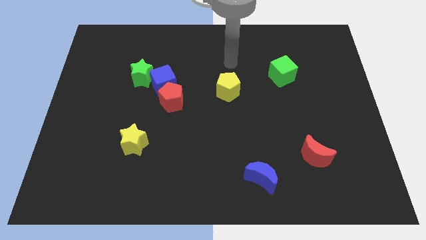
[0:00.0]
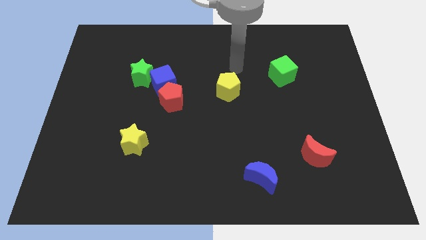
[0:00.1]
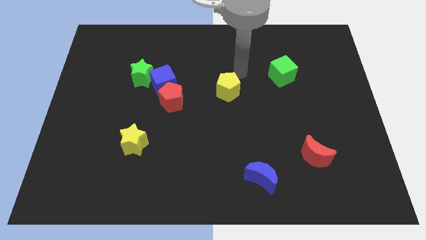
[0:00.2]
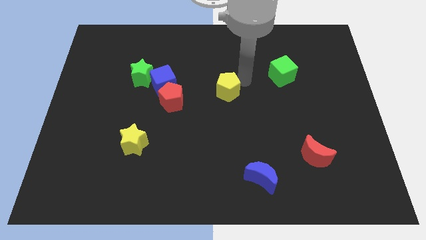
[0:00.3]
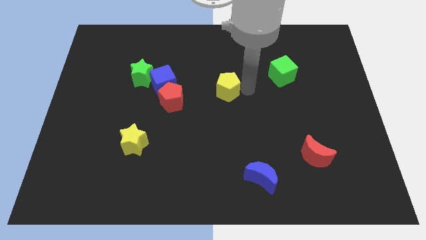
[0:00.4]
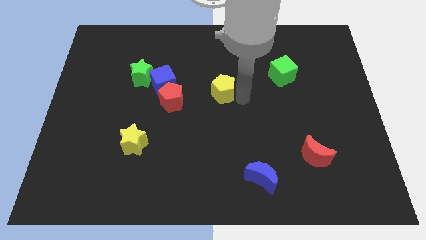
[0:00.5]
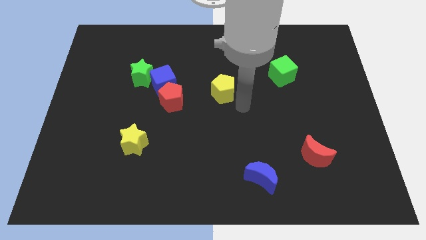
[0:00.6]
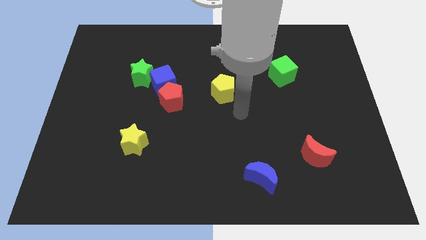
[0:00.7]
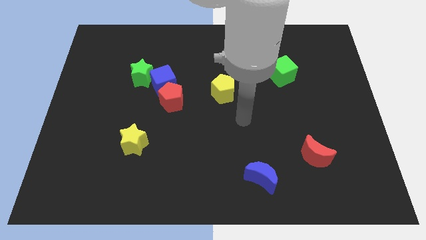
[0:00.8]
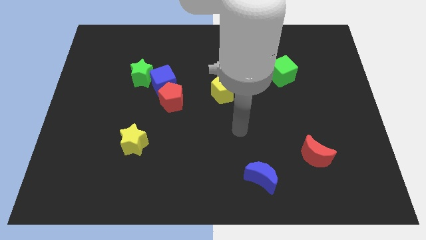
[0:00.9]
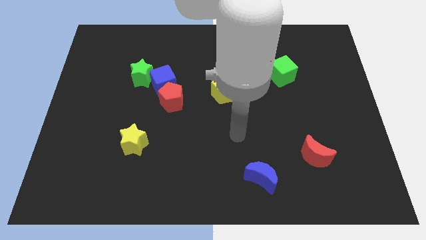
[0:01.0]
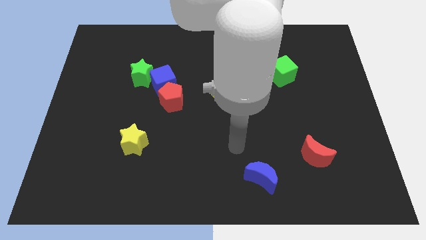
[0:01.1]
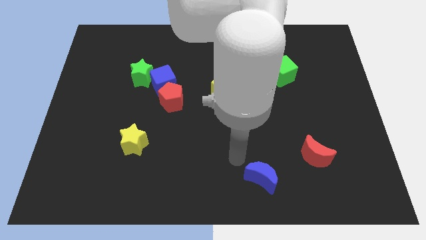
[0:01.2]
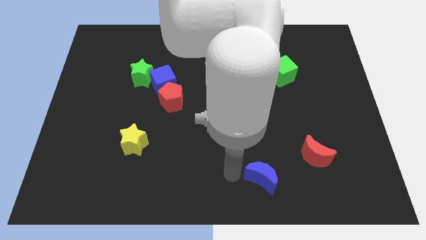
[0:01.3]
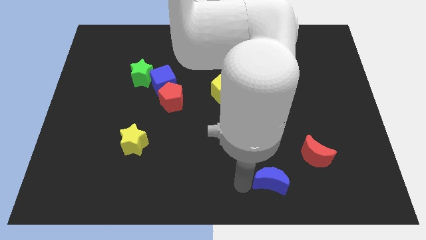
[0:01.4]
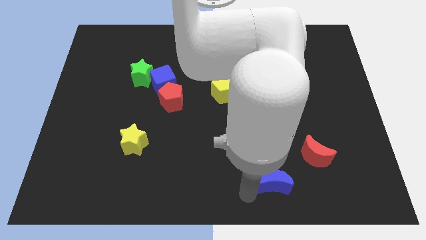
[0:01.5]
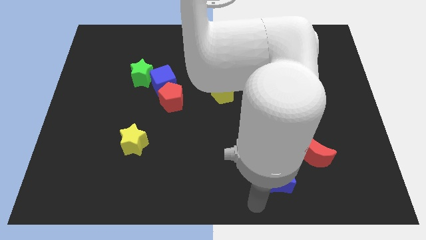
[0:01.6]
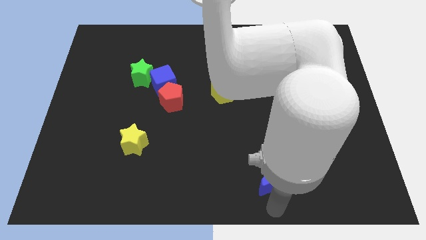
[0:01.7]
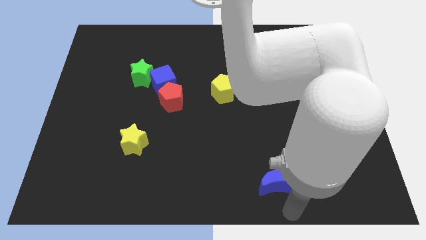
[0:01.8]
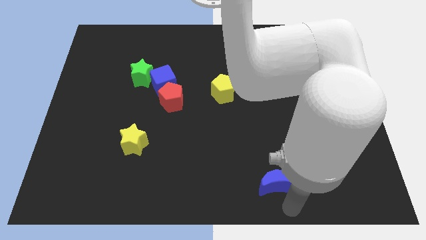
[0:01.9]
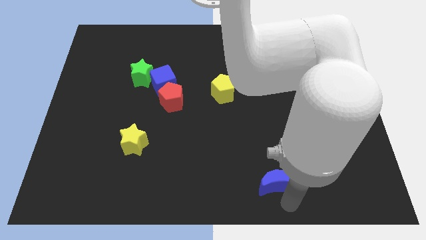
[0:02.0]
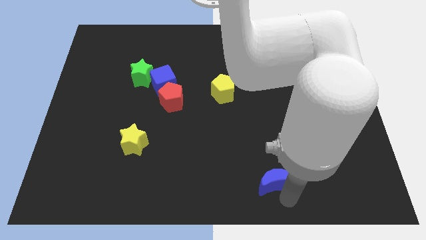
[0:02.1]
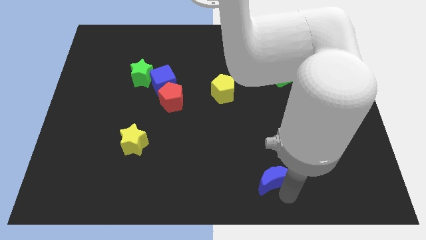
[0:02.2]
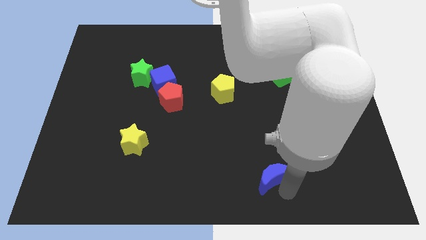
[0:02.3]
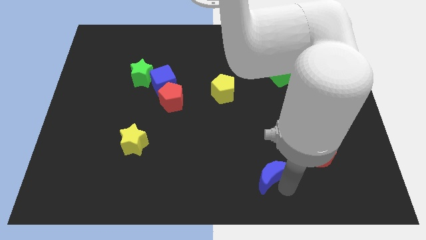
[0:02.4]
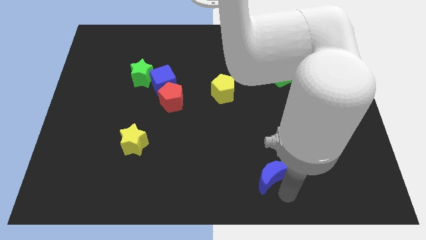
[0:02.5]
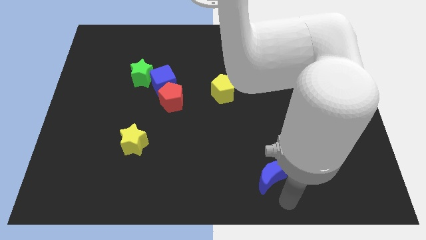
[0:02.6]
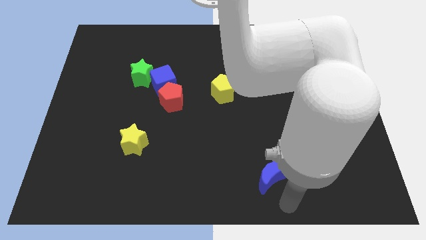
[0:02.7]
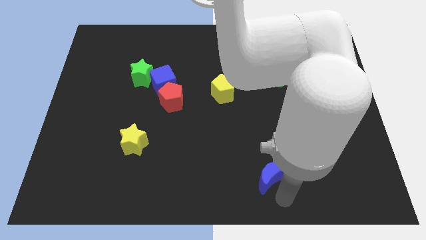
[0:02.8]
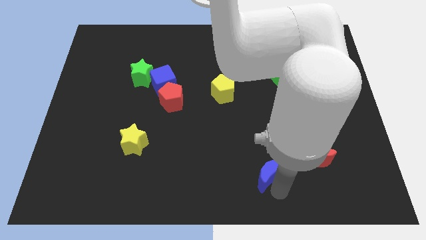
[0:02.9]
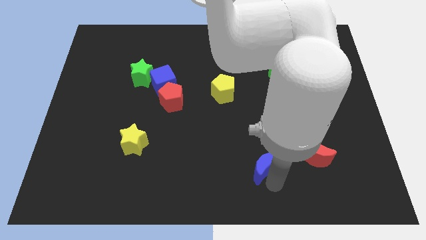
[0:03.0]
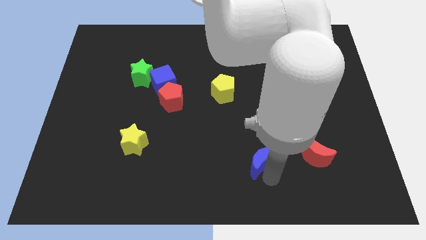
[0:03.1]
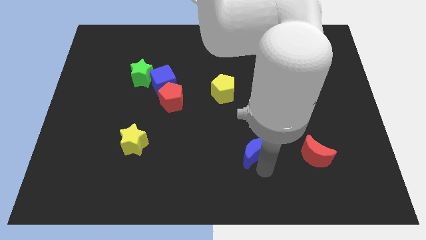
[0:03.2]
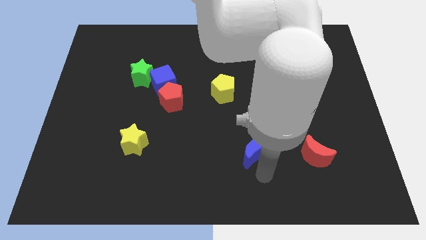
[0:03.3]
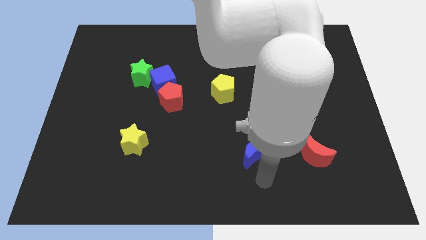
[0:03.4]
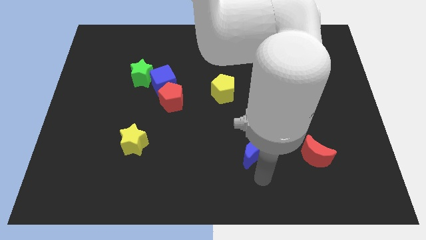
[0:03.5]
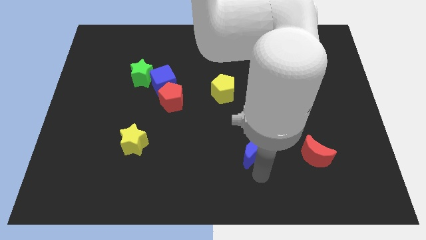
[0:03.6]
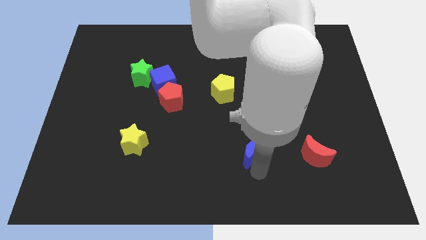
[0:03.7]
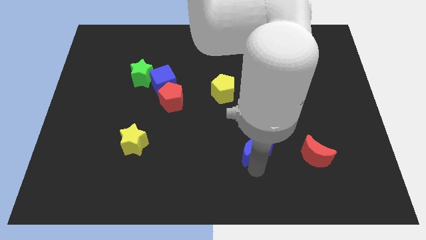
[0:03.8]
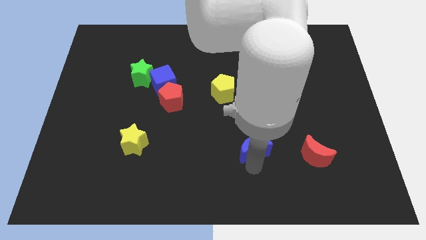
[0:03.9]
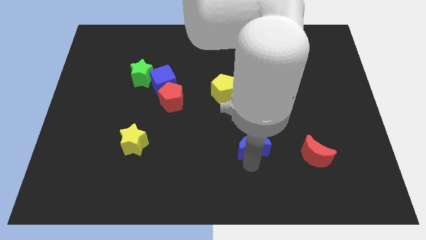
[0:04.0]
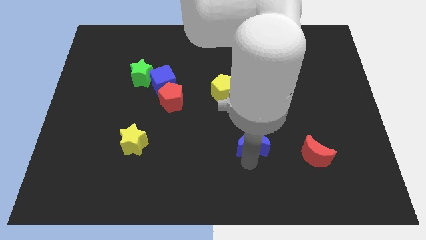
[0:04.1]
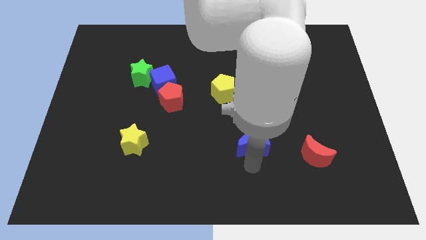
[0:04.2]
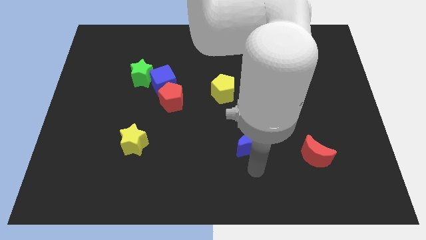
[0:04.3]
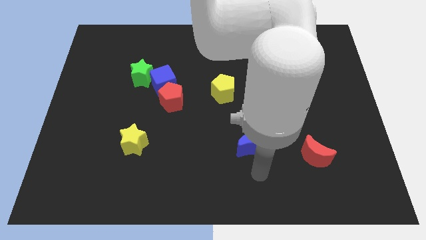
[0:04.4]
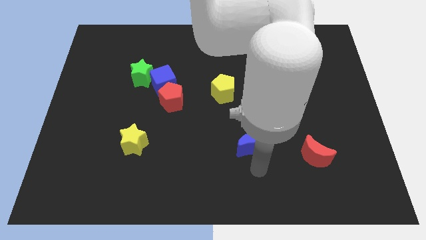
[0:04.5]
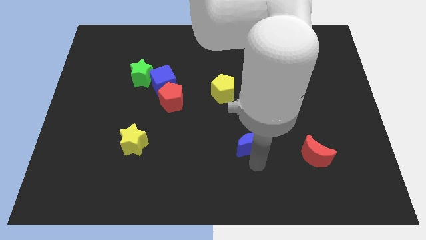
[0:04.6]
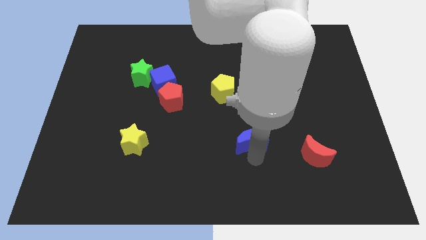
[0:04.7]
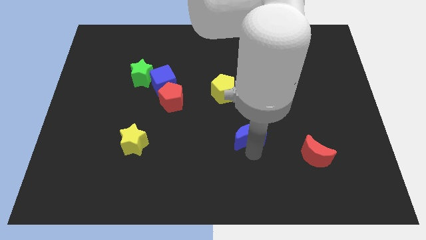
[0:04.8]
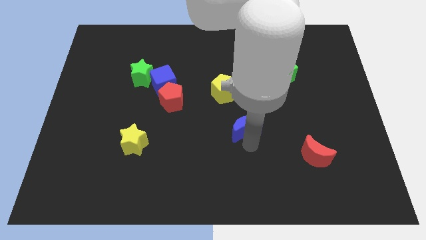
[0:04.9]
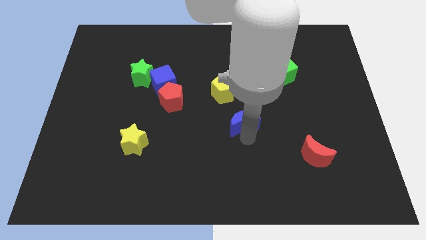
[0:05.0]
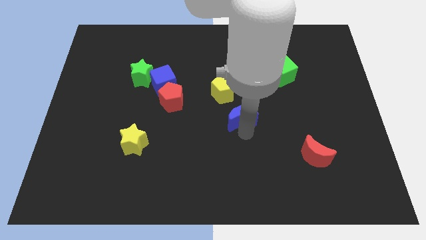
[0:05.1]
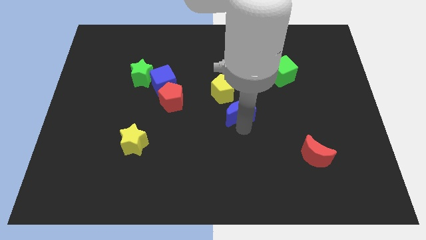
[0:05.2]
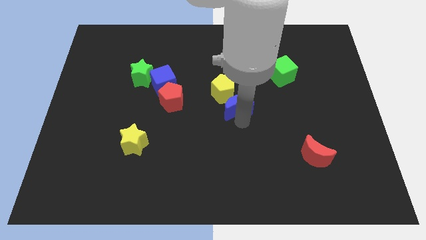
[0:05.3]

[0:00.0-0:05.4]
push the blue moon to the yellow pentagon

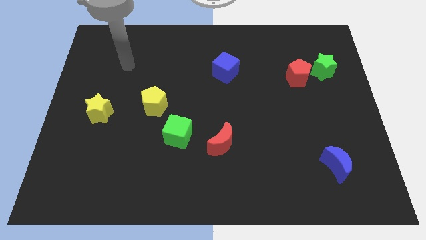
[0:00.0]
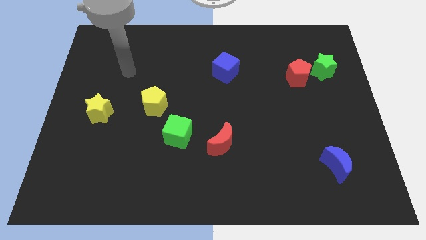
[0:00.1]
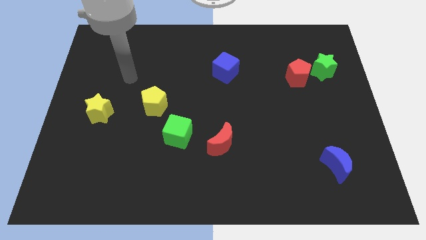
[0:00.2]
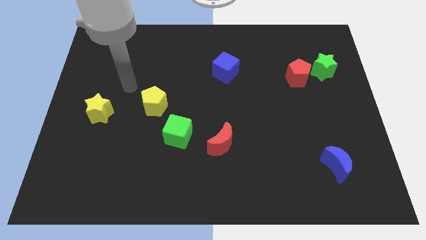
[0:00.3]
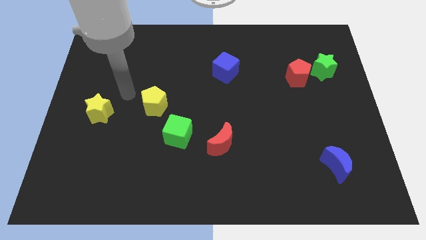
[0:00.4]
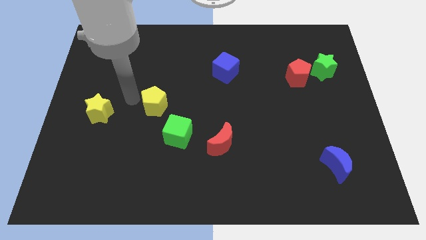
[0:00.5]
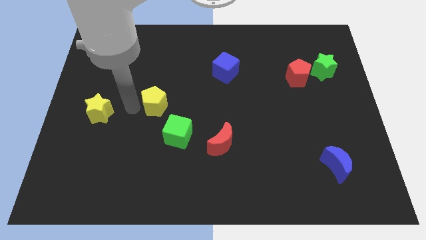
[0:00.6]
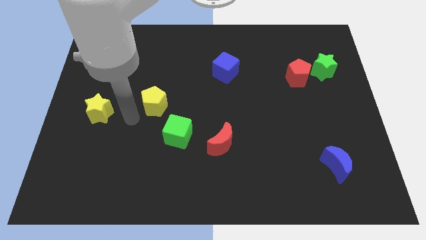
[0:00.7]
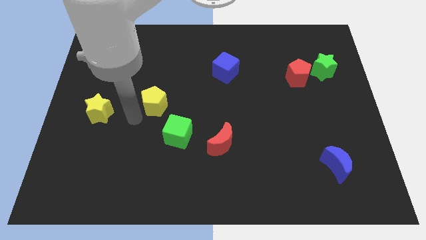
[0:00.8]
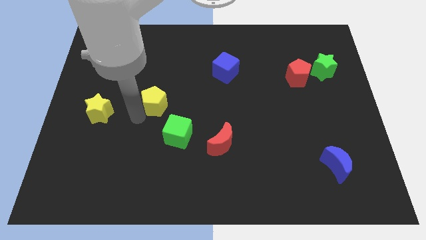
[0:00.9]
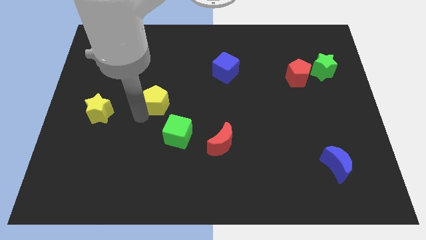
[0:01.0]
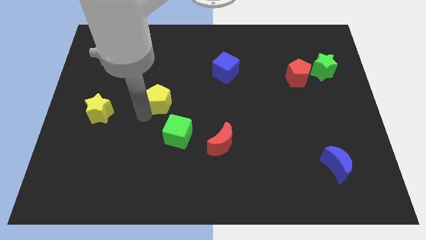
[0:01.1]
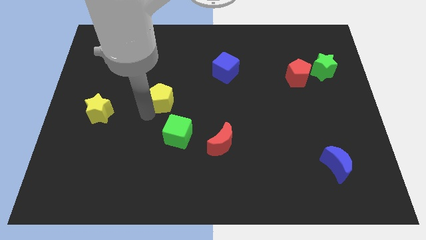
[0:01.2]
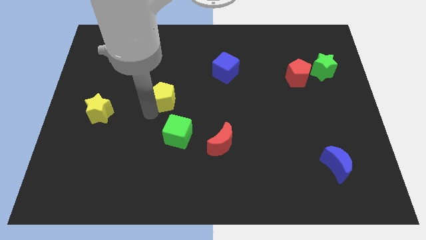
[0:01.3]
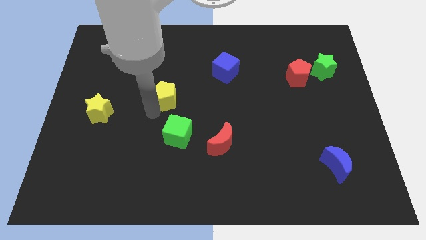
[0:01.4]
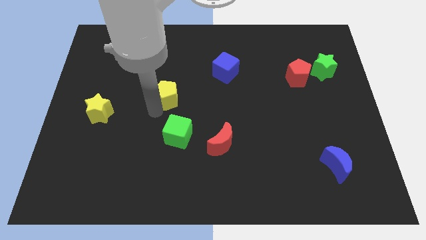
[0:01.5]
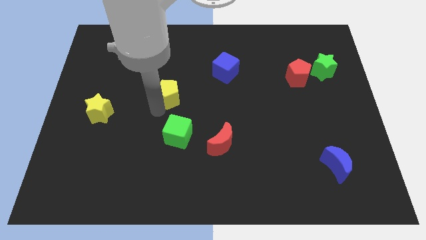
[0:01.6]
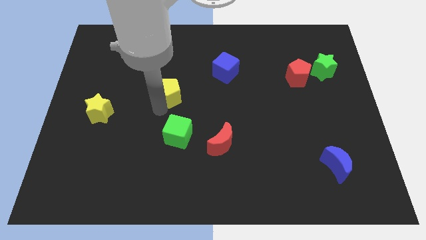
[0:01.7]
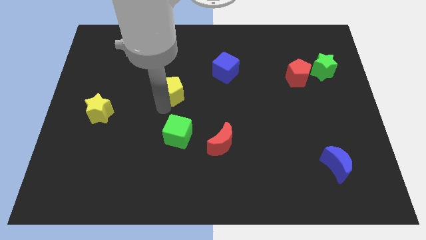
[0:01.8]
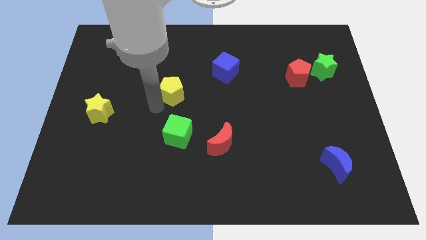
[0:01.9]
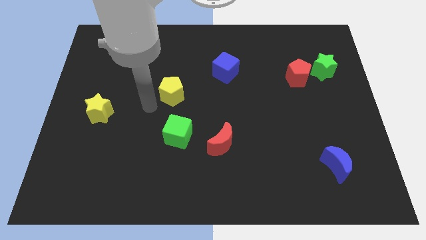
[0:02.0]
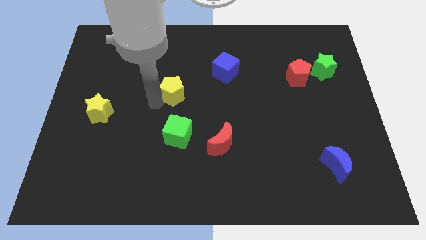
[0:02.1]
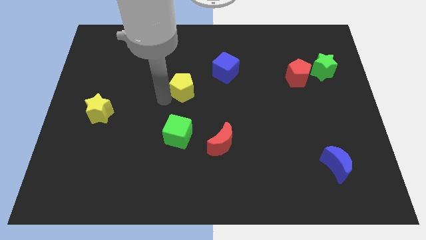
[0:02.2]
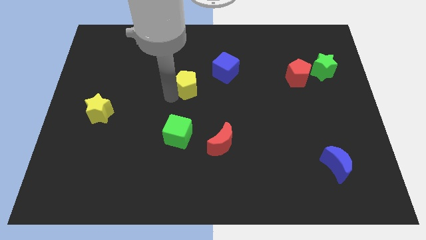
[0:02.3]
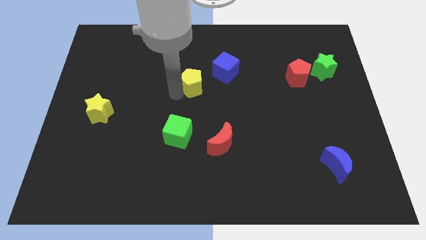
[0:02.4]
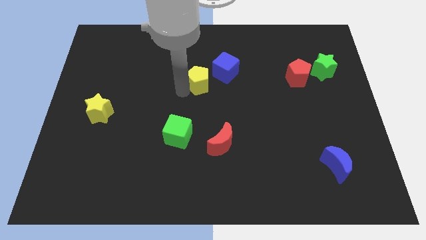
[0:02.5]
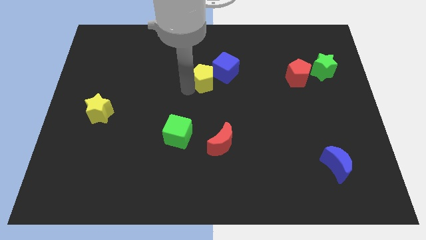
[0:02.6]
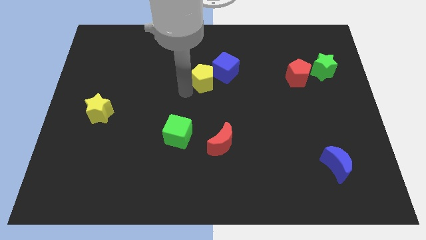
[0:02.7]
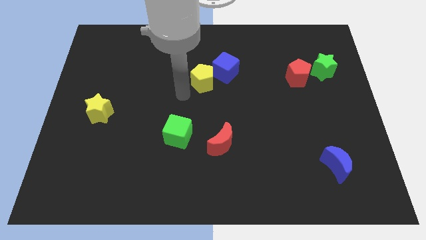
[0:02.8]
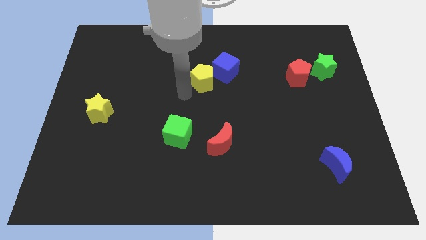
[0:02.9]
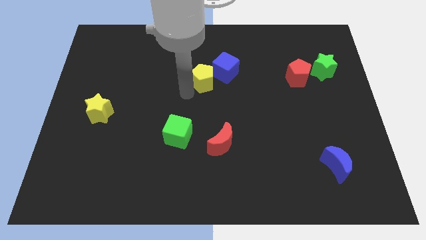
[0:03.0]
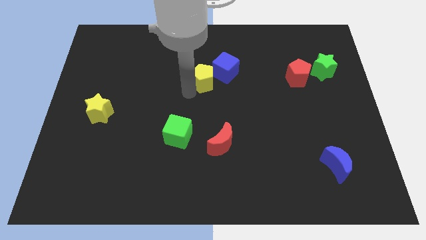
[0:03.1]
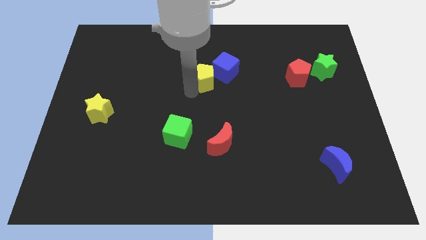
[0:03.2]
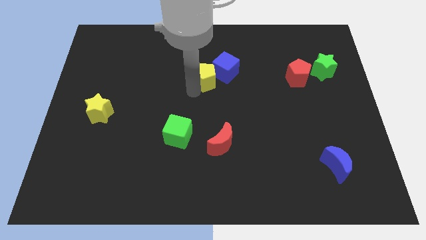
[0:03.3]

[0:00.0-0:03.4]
move the yellow pentagon next to the blue cube
